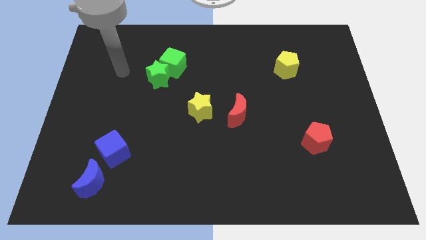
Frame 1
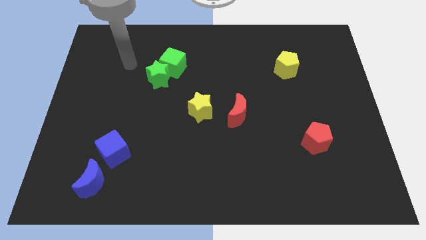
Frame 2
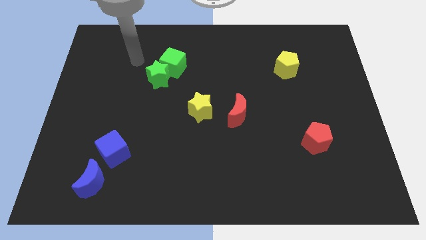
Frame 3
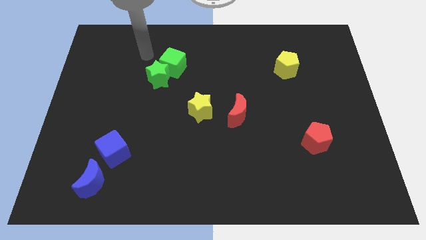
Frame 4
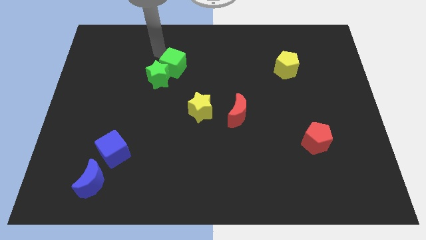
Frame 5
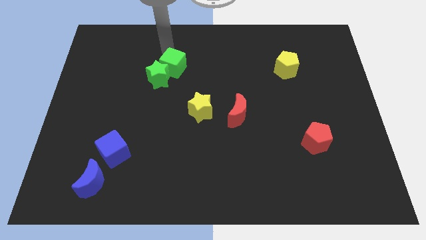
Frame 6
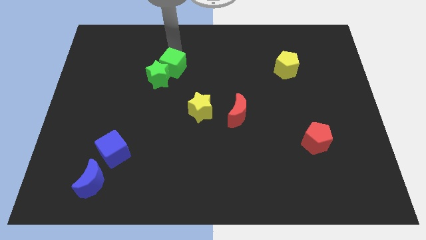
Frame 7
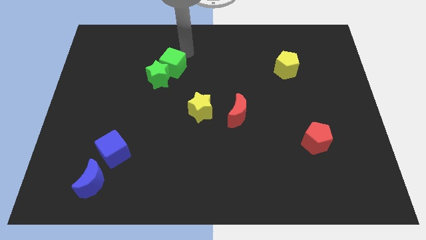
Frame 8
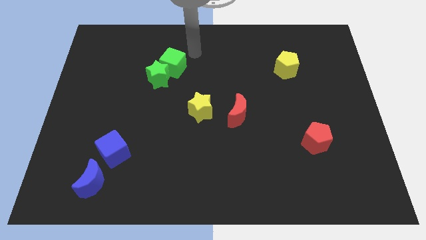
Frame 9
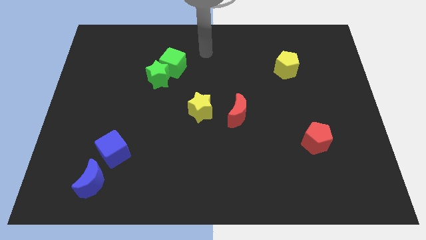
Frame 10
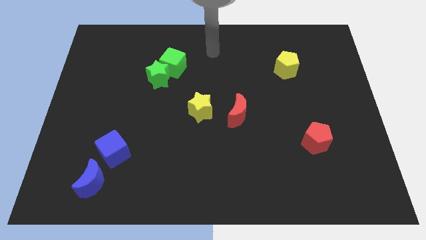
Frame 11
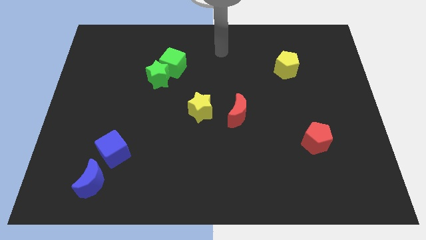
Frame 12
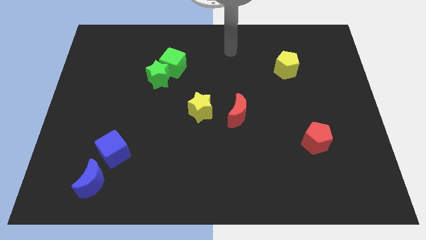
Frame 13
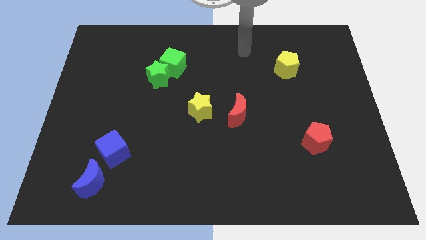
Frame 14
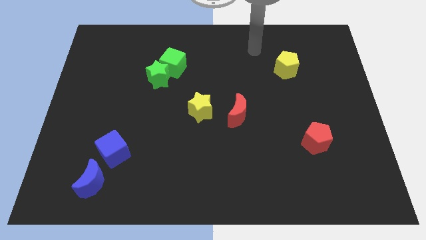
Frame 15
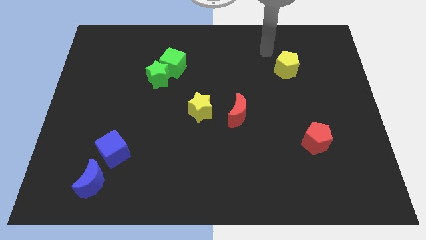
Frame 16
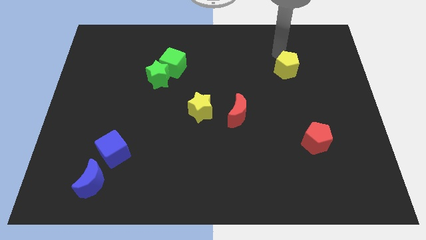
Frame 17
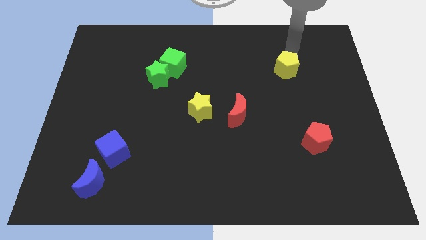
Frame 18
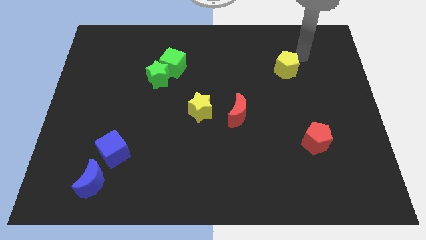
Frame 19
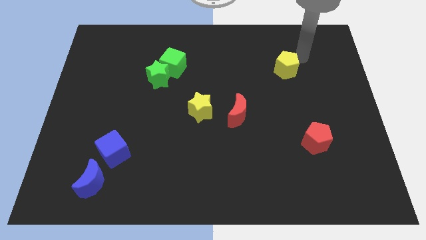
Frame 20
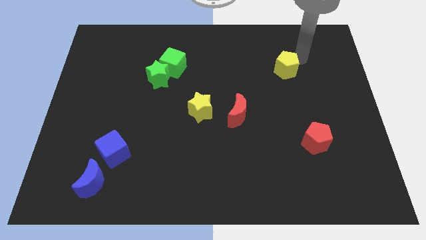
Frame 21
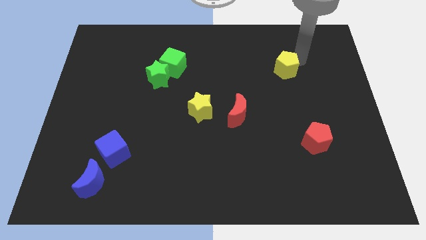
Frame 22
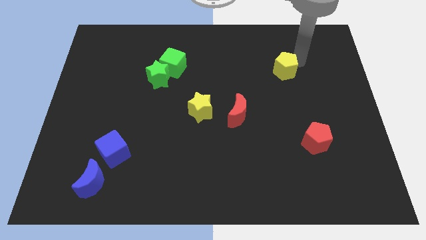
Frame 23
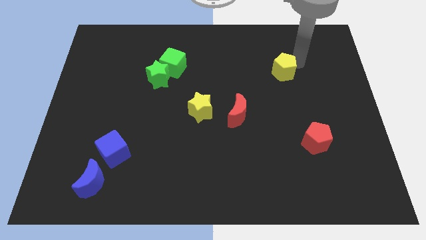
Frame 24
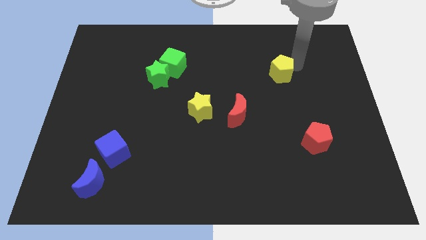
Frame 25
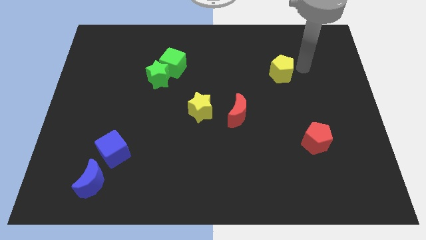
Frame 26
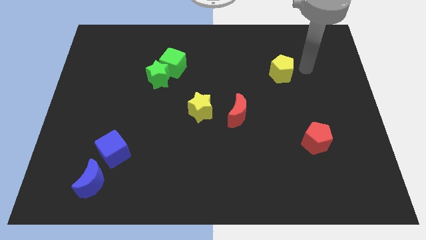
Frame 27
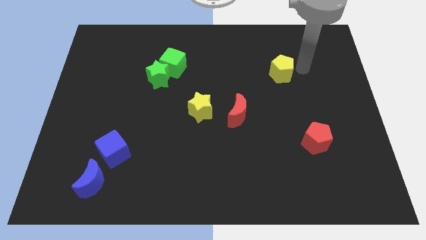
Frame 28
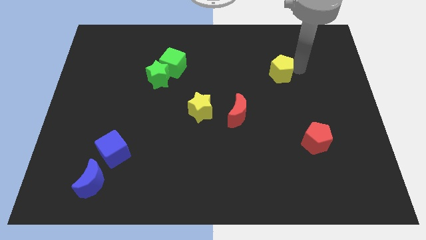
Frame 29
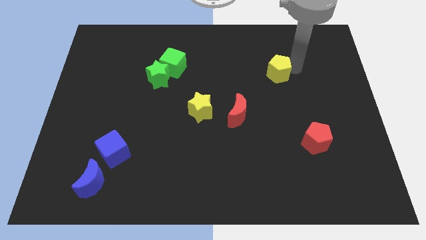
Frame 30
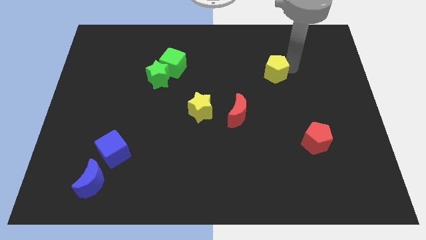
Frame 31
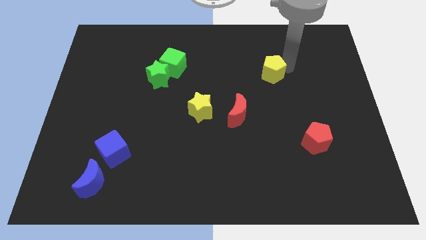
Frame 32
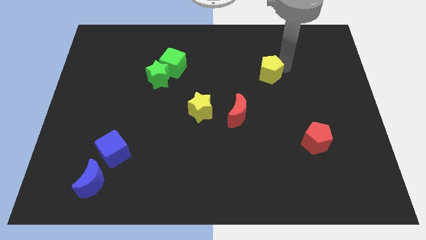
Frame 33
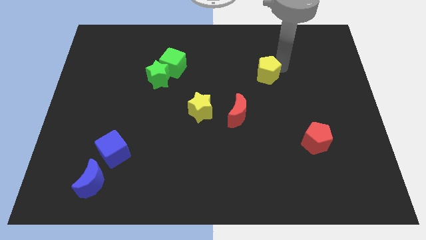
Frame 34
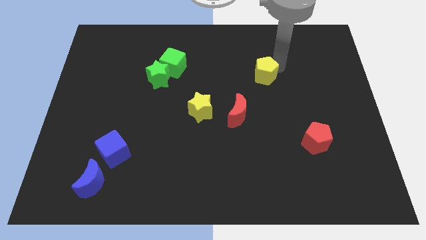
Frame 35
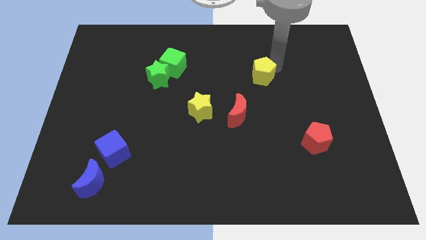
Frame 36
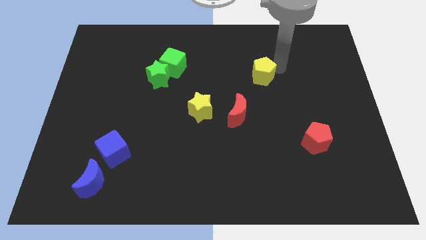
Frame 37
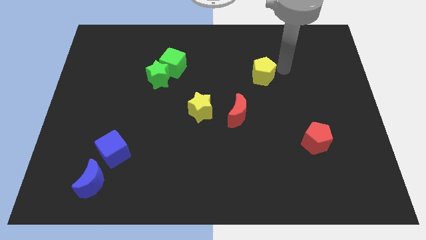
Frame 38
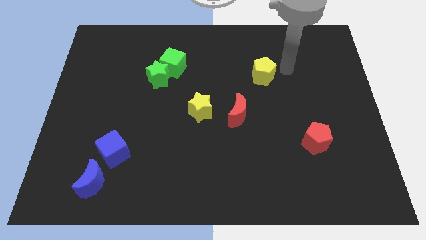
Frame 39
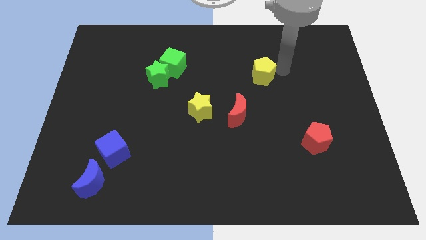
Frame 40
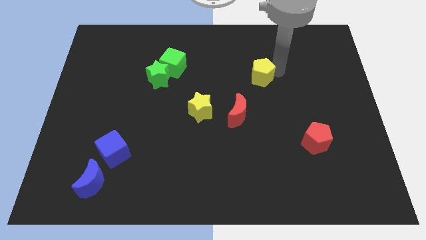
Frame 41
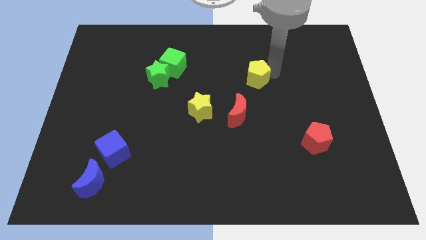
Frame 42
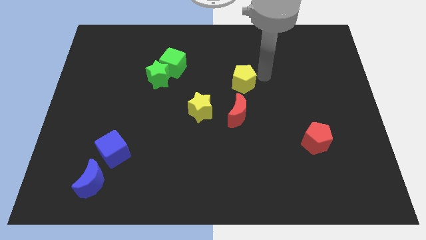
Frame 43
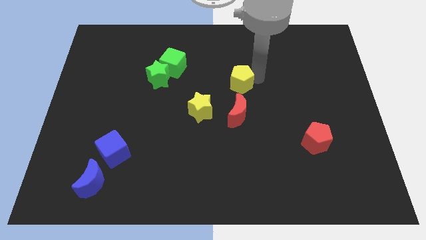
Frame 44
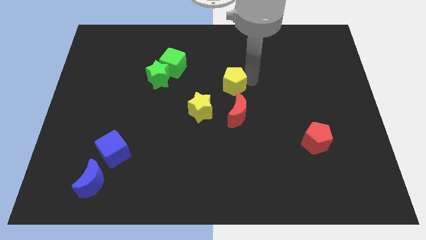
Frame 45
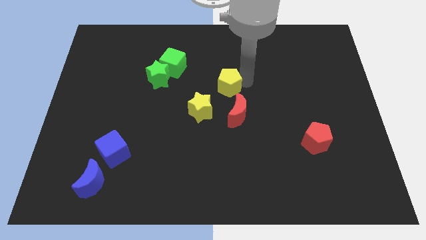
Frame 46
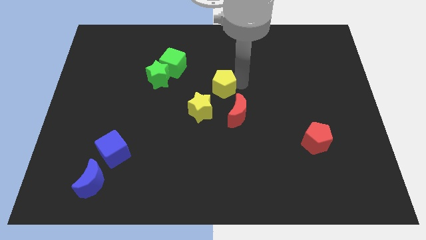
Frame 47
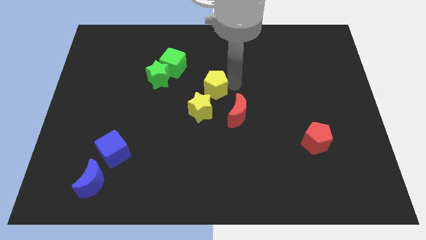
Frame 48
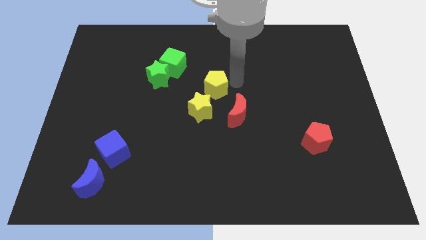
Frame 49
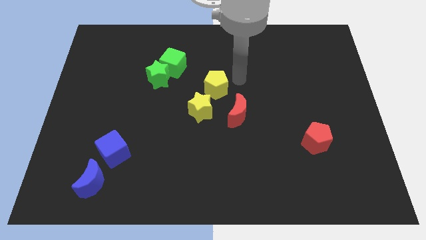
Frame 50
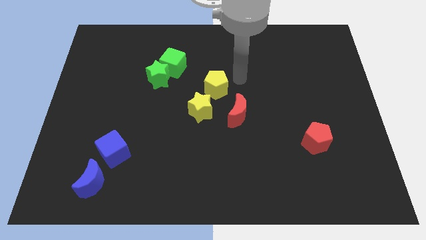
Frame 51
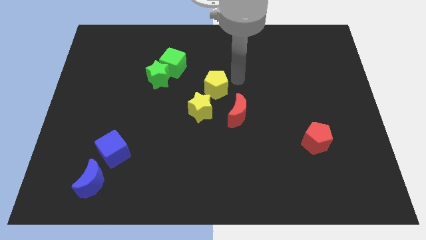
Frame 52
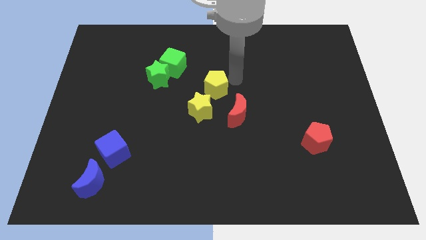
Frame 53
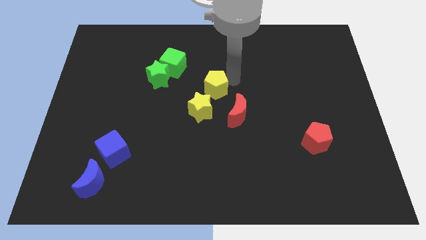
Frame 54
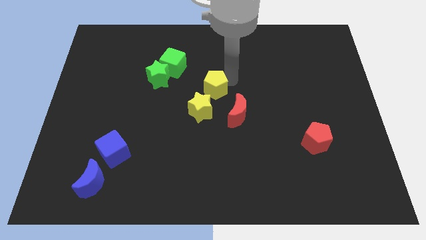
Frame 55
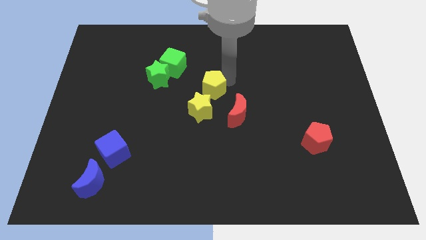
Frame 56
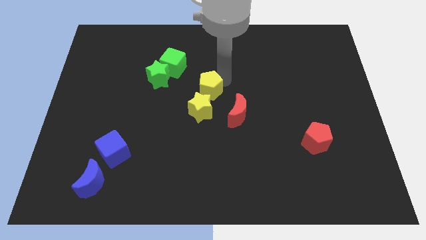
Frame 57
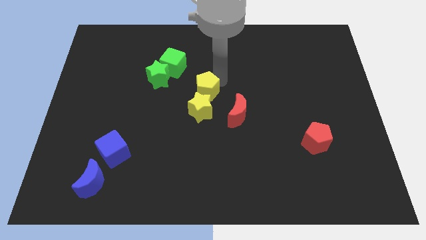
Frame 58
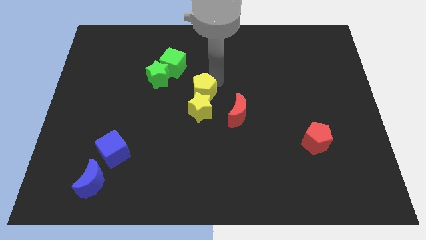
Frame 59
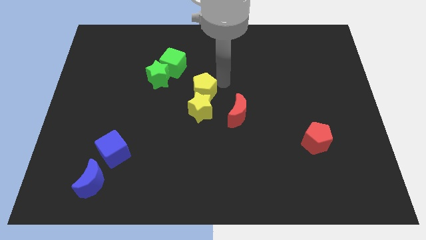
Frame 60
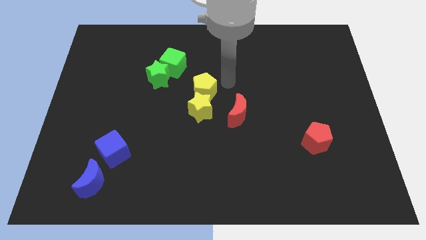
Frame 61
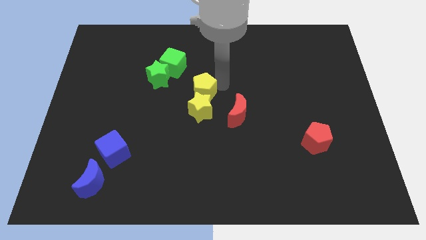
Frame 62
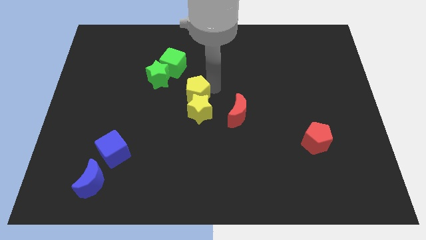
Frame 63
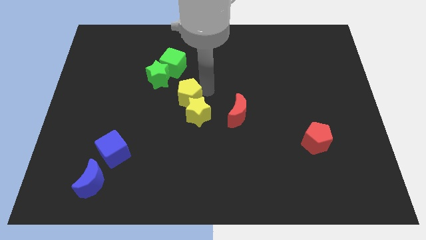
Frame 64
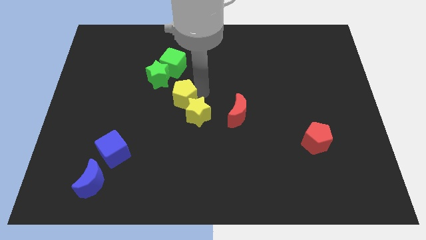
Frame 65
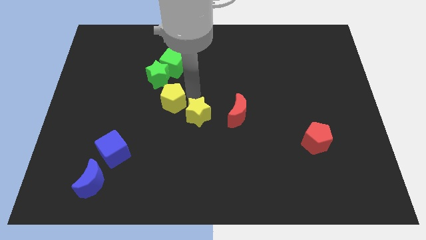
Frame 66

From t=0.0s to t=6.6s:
move the yellow pentagon to the bottom side of the green star
